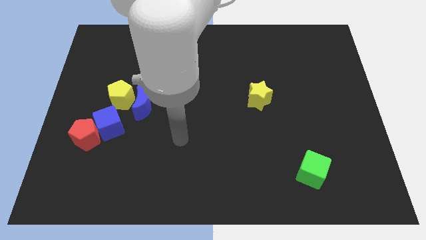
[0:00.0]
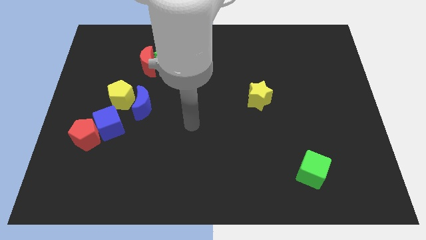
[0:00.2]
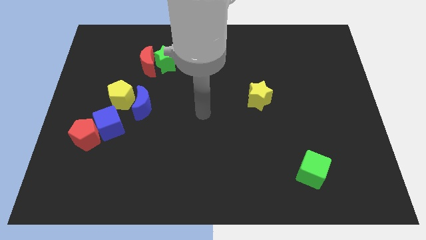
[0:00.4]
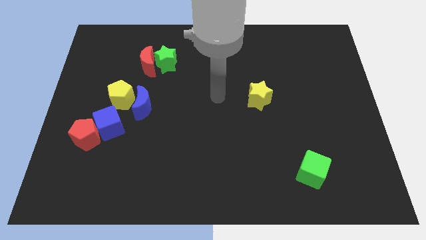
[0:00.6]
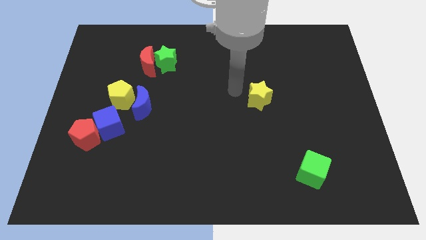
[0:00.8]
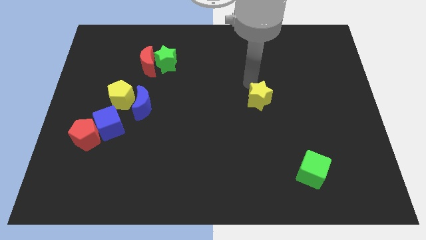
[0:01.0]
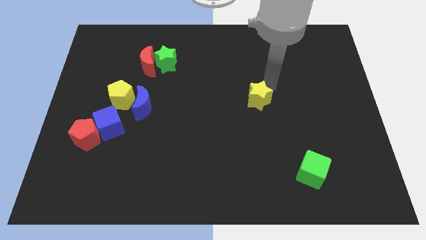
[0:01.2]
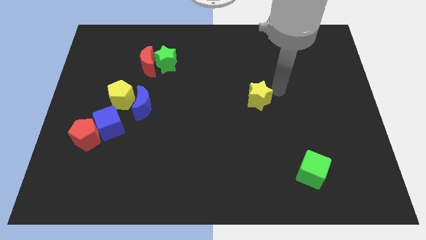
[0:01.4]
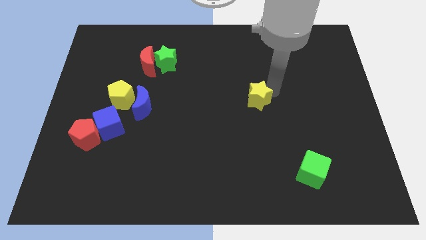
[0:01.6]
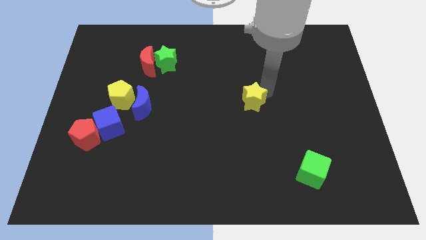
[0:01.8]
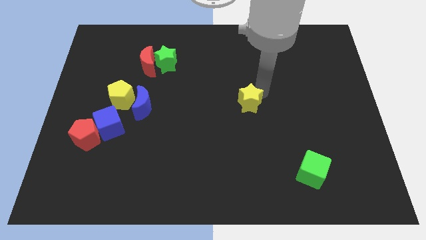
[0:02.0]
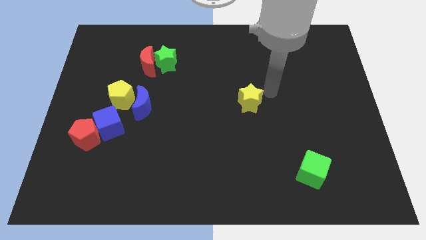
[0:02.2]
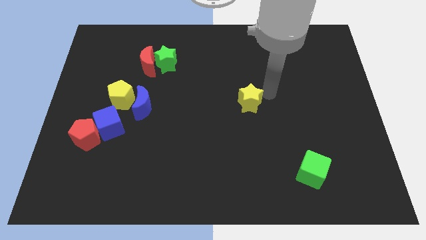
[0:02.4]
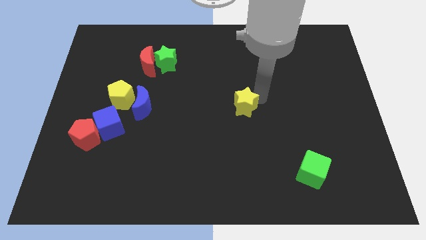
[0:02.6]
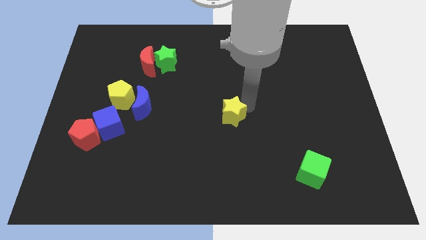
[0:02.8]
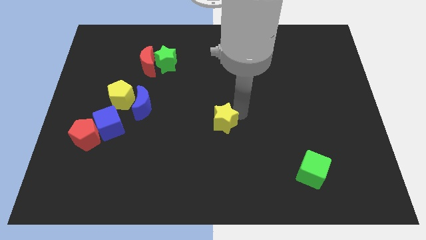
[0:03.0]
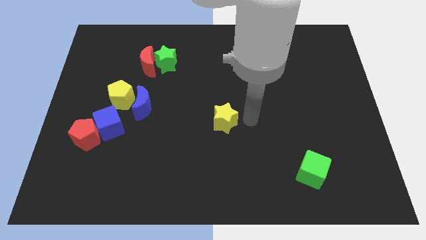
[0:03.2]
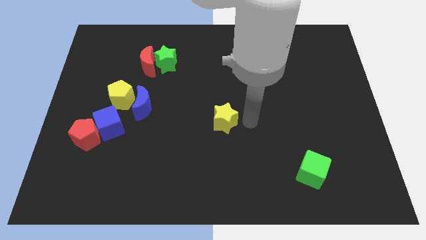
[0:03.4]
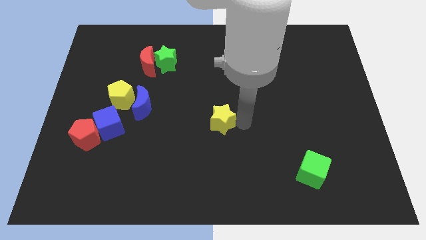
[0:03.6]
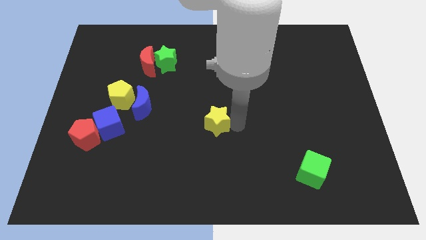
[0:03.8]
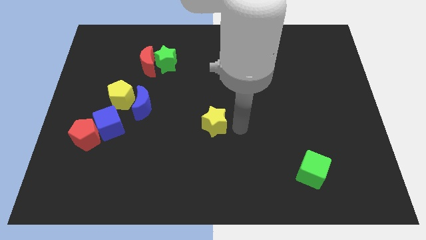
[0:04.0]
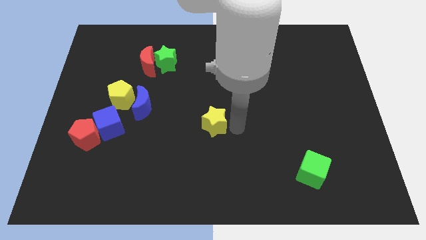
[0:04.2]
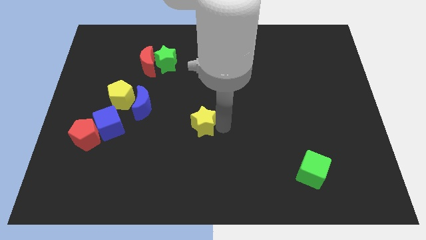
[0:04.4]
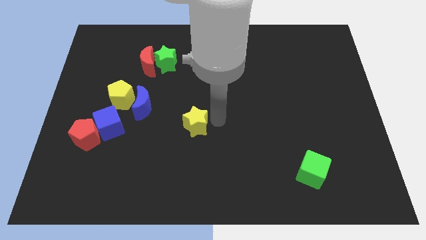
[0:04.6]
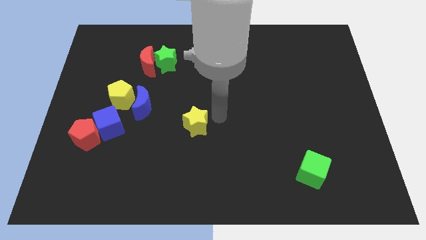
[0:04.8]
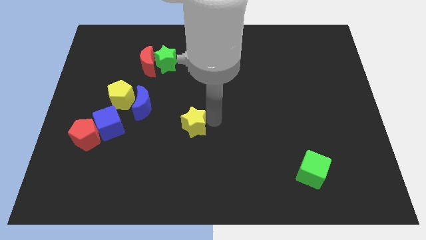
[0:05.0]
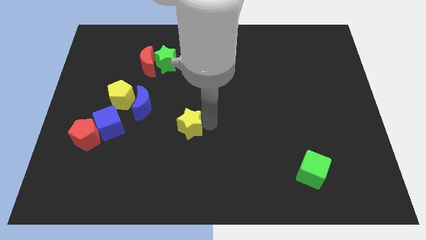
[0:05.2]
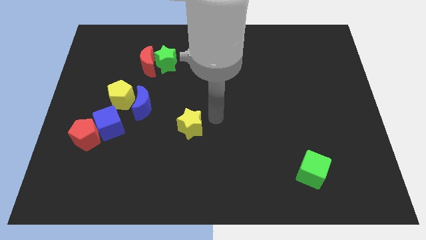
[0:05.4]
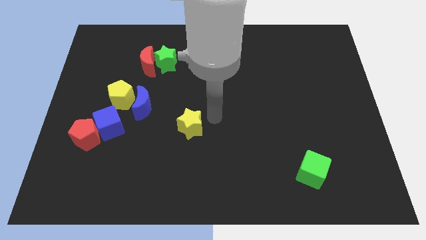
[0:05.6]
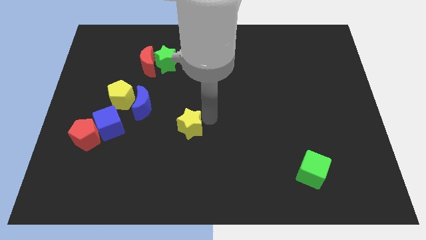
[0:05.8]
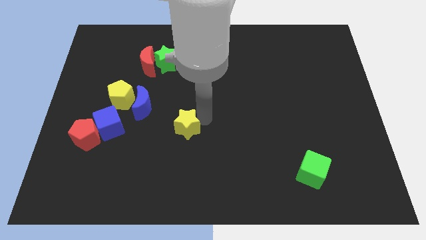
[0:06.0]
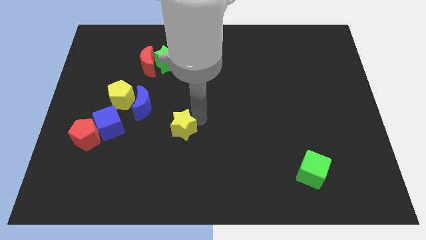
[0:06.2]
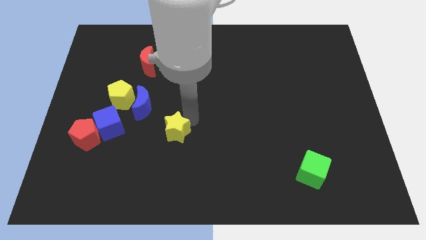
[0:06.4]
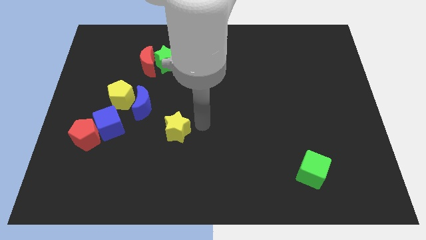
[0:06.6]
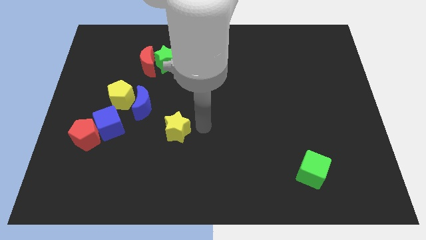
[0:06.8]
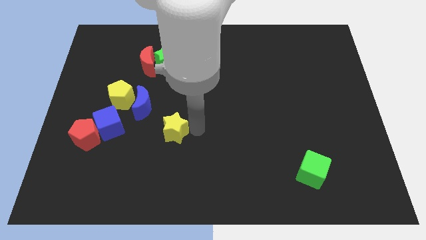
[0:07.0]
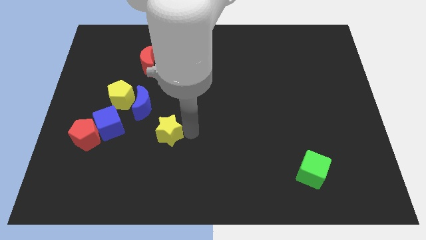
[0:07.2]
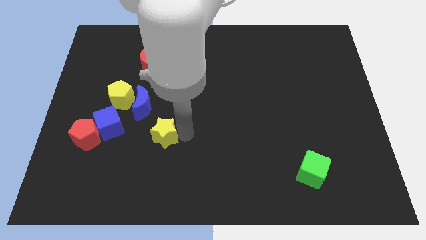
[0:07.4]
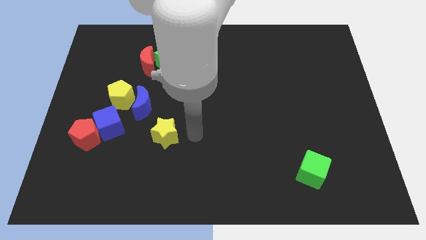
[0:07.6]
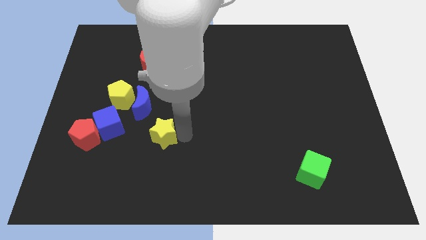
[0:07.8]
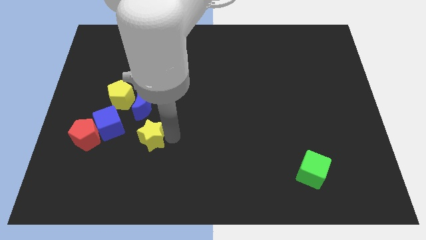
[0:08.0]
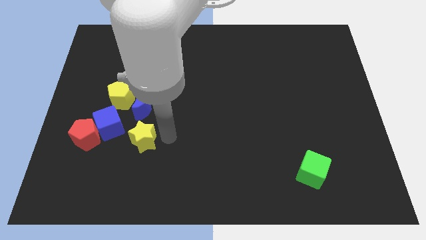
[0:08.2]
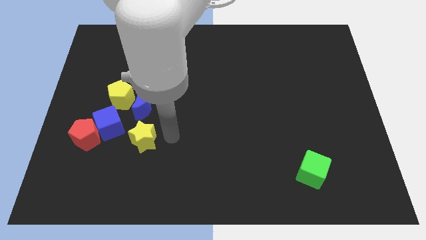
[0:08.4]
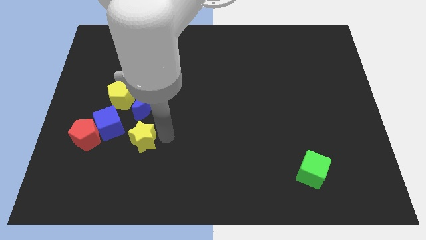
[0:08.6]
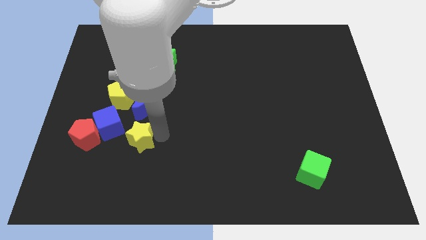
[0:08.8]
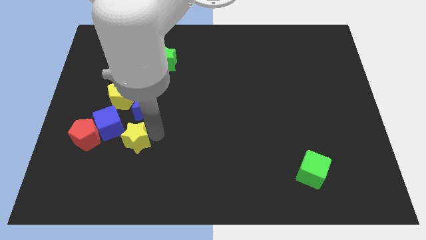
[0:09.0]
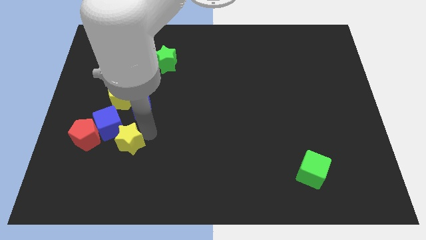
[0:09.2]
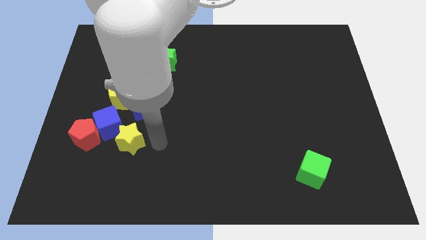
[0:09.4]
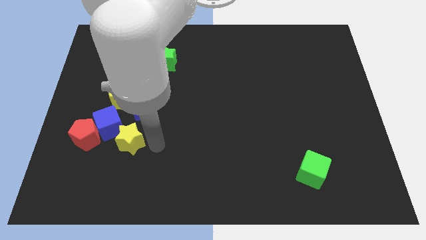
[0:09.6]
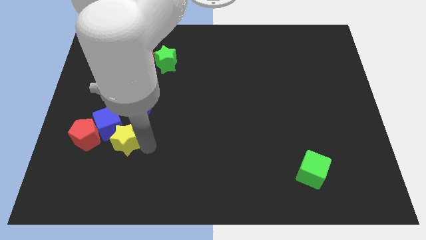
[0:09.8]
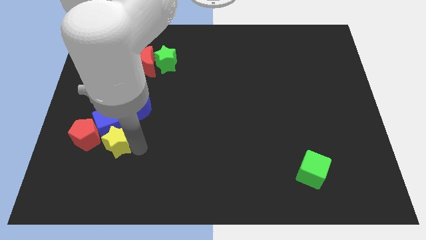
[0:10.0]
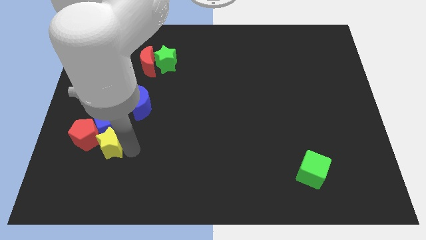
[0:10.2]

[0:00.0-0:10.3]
move the yellow star next to the red pentagon

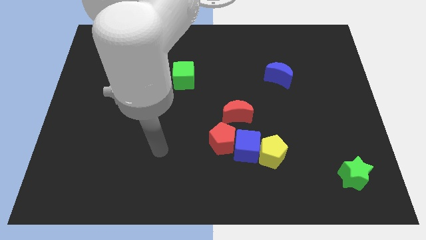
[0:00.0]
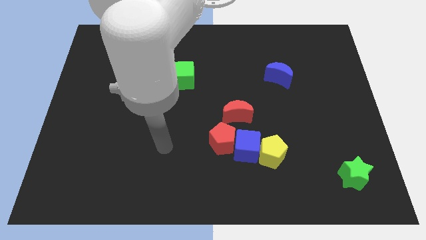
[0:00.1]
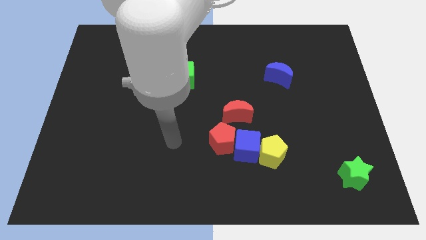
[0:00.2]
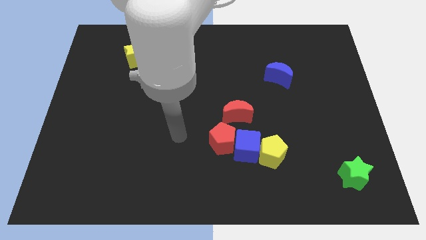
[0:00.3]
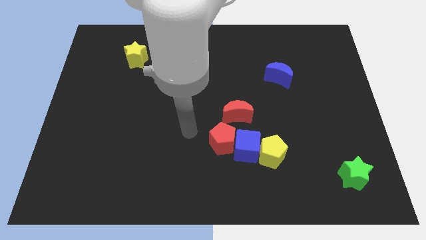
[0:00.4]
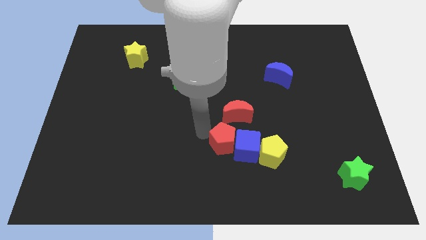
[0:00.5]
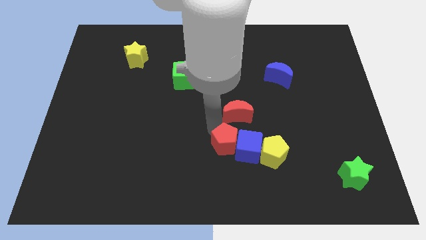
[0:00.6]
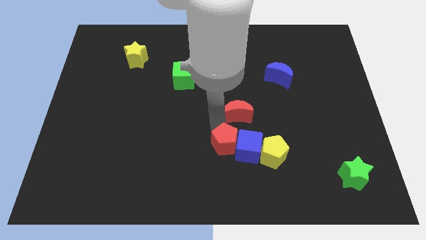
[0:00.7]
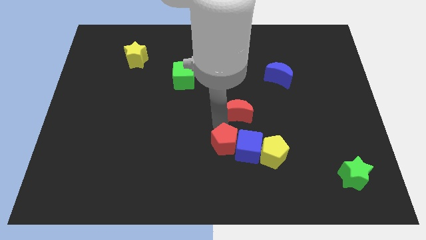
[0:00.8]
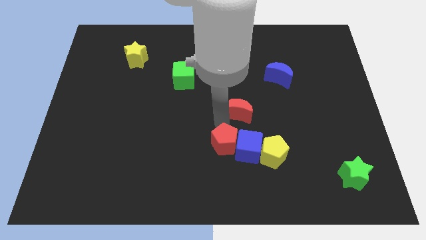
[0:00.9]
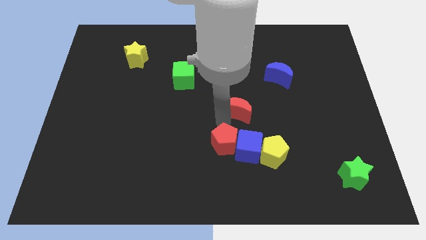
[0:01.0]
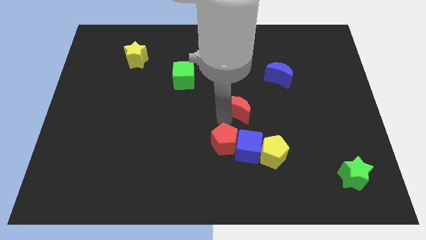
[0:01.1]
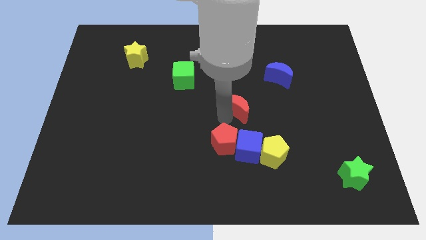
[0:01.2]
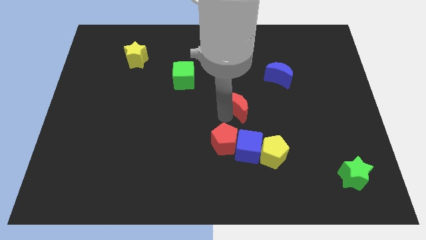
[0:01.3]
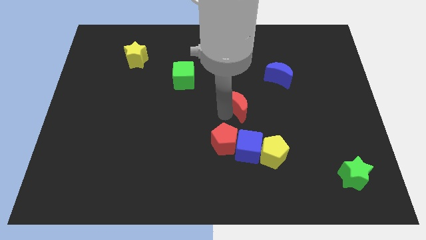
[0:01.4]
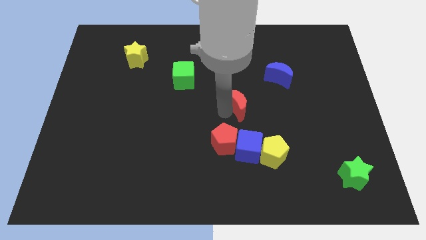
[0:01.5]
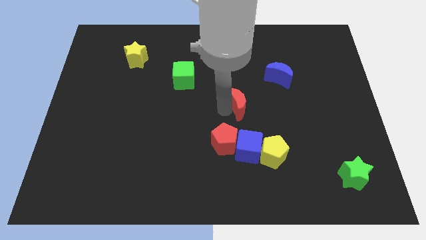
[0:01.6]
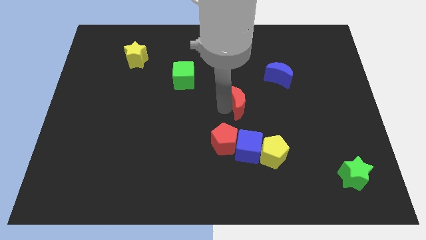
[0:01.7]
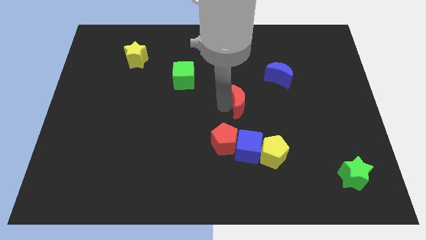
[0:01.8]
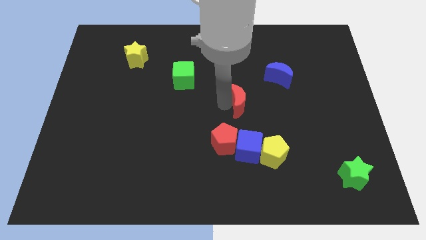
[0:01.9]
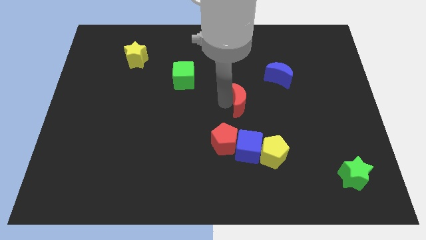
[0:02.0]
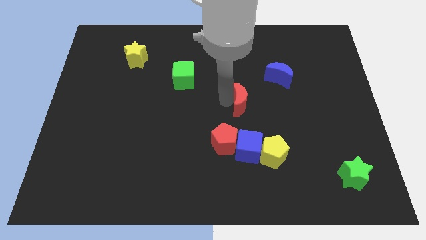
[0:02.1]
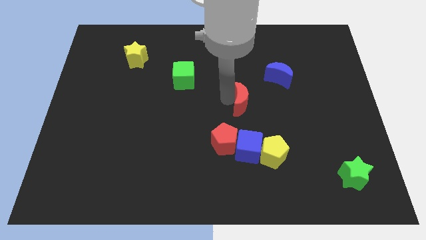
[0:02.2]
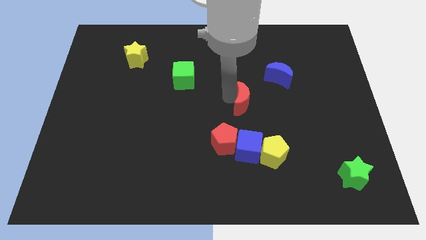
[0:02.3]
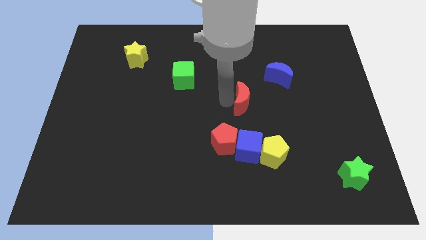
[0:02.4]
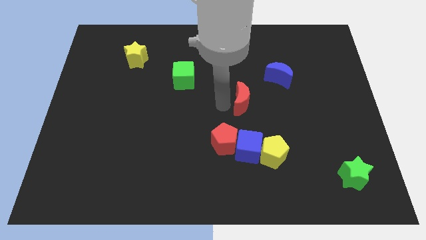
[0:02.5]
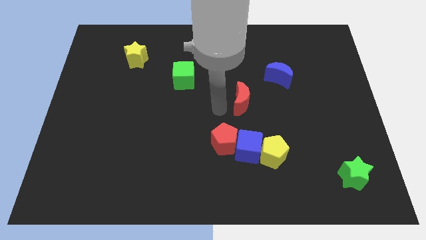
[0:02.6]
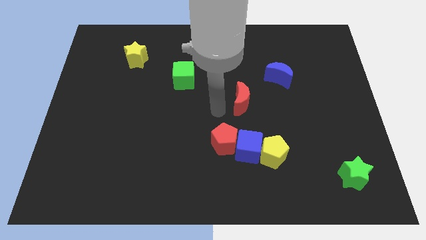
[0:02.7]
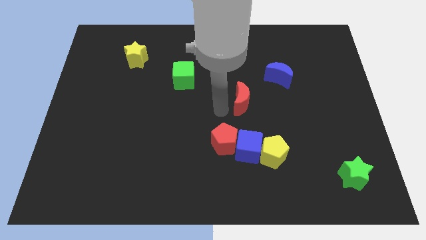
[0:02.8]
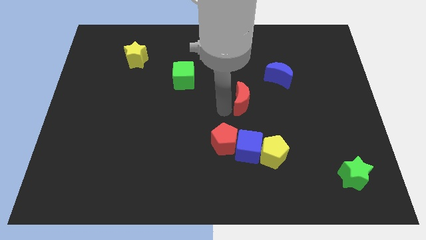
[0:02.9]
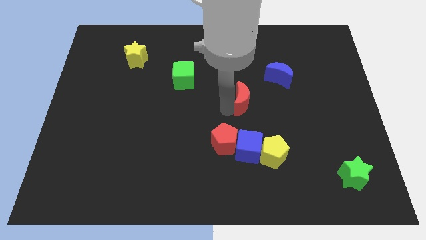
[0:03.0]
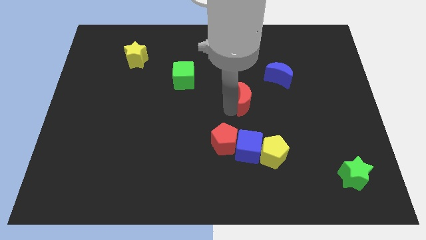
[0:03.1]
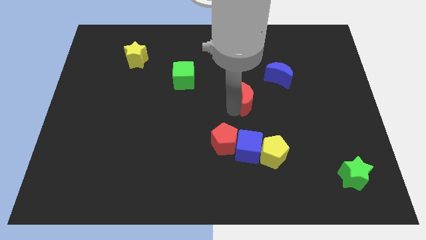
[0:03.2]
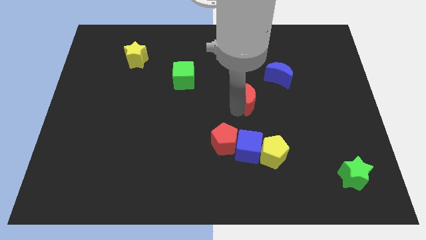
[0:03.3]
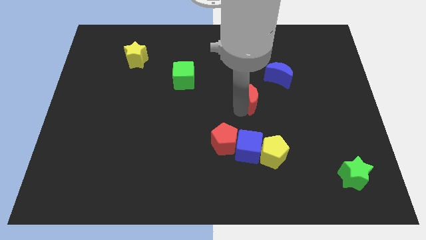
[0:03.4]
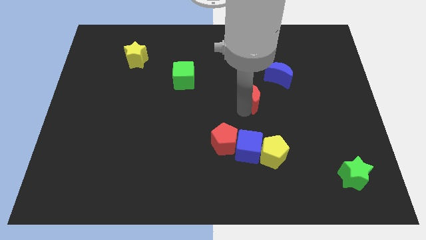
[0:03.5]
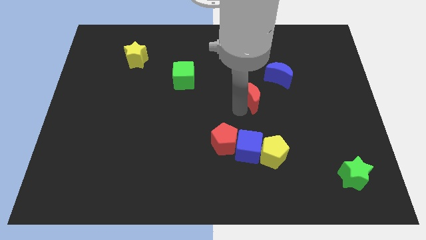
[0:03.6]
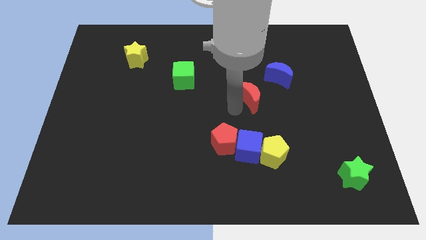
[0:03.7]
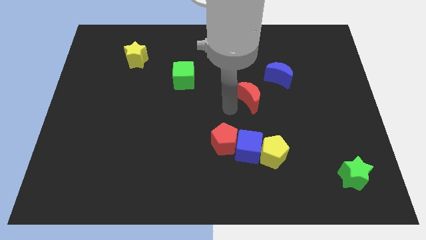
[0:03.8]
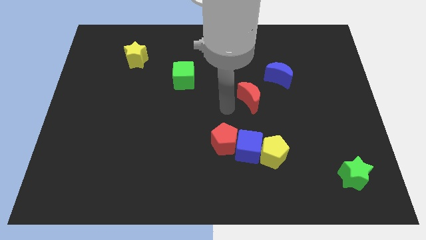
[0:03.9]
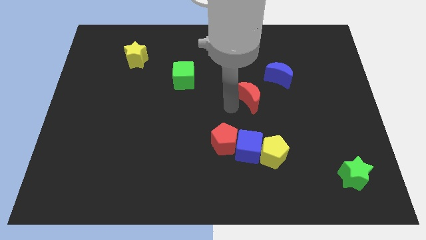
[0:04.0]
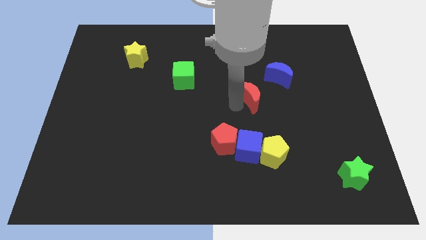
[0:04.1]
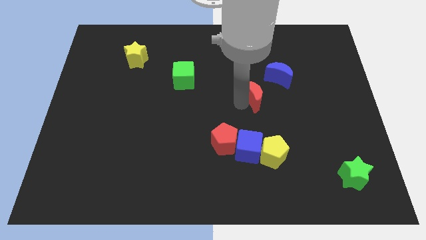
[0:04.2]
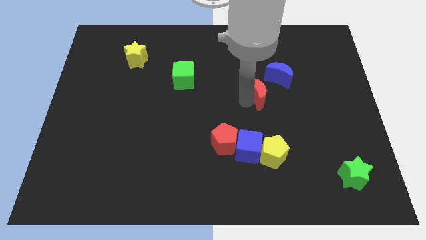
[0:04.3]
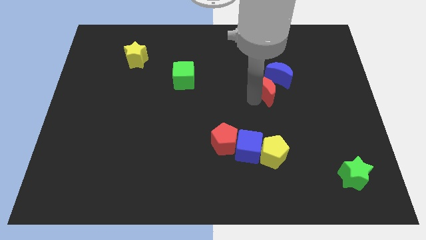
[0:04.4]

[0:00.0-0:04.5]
put the red moon to the blue moon
